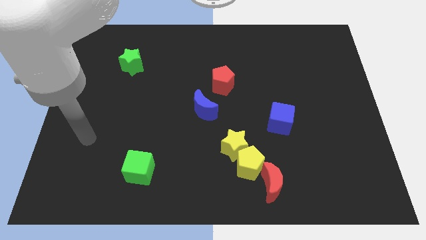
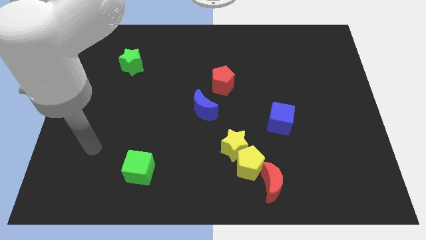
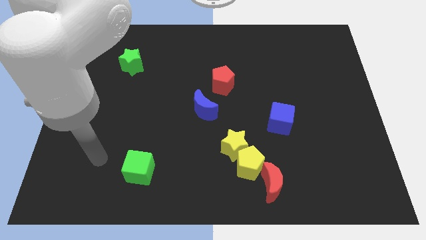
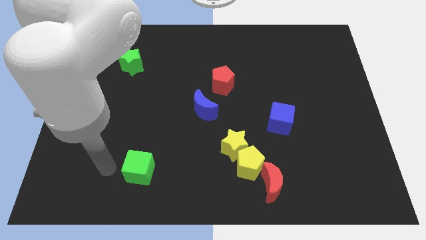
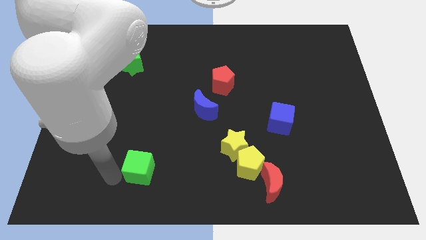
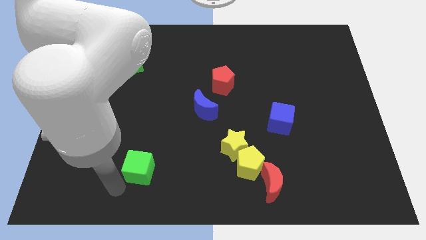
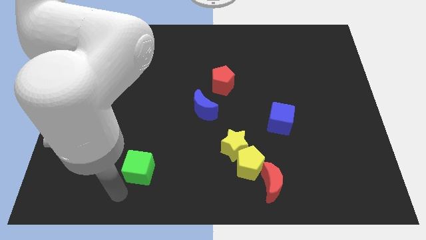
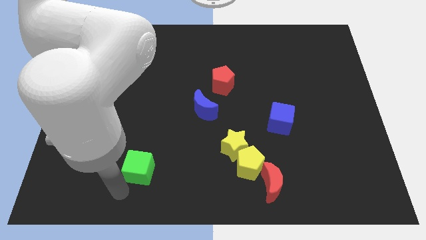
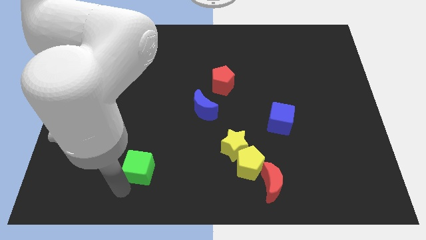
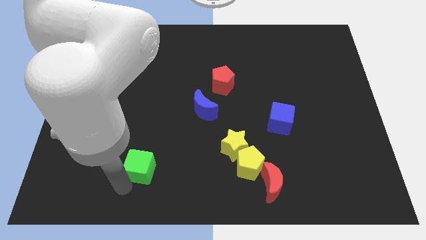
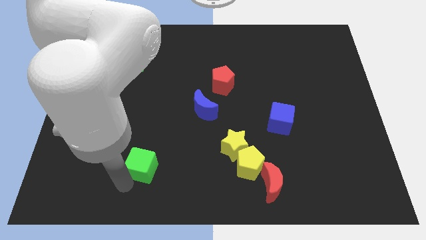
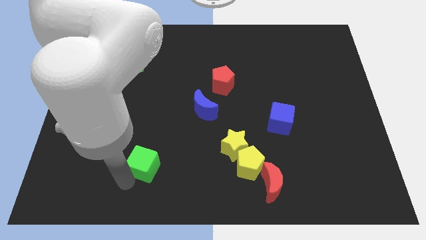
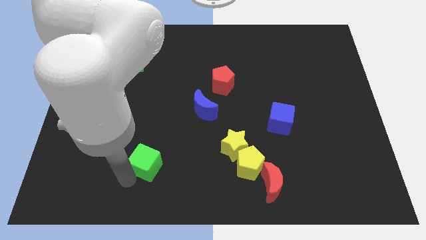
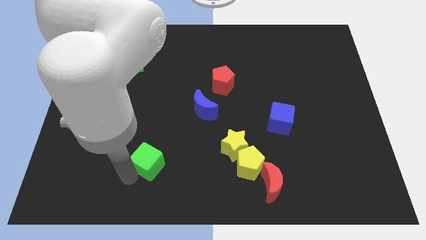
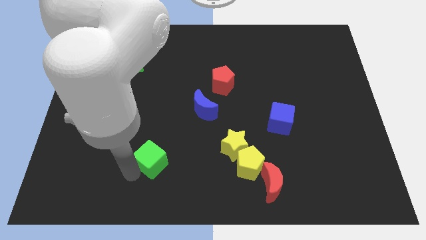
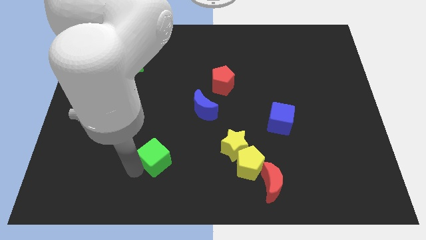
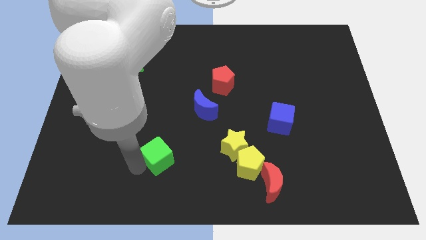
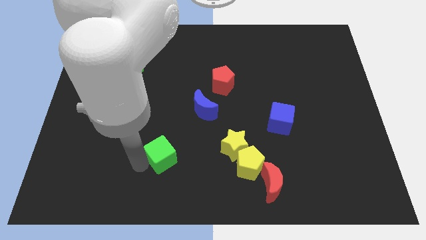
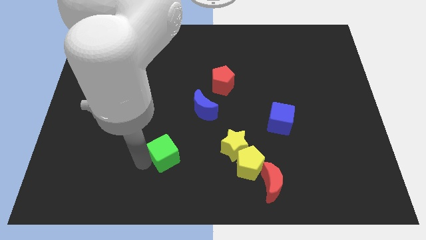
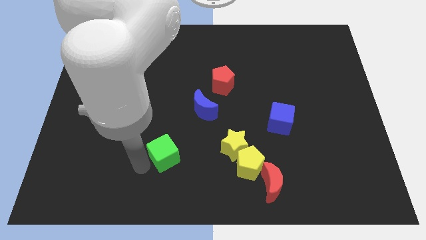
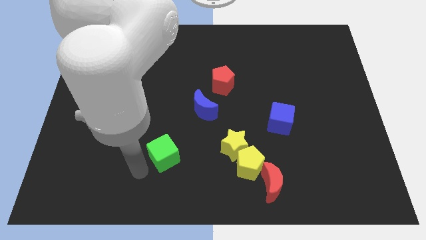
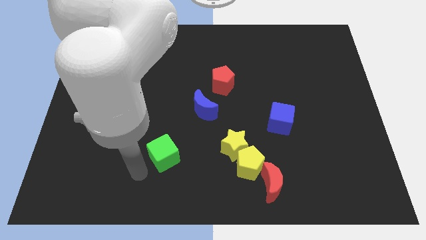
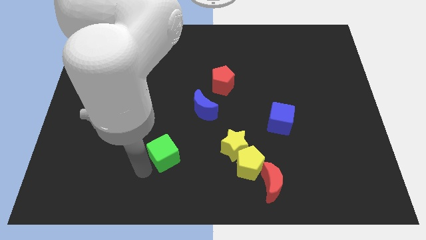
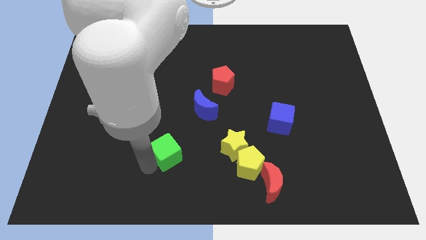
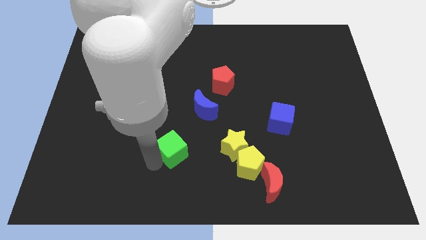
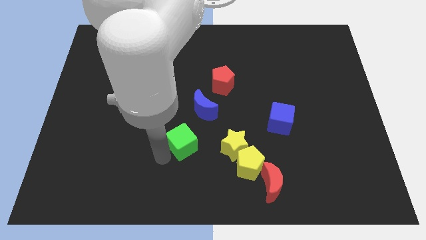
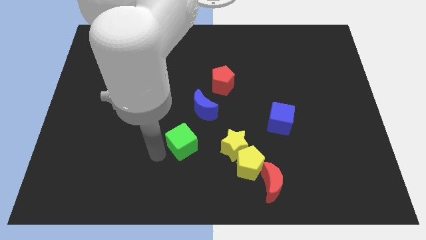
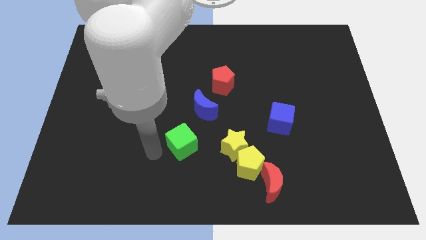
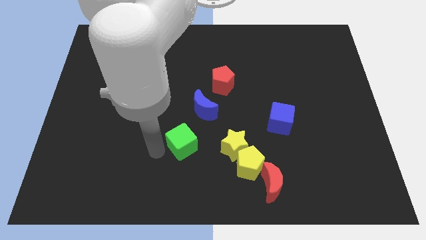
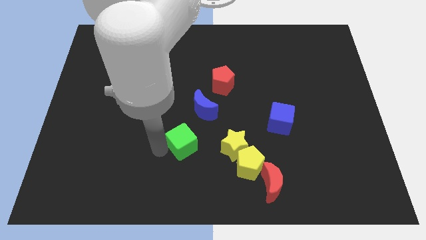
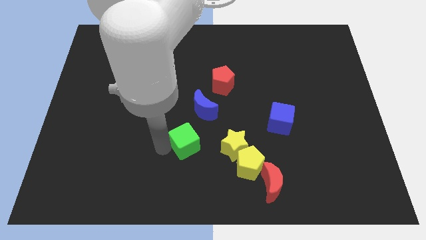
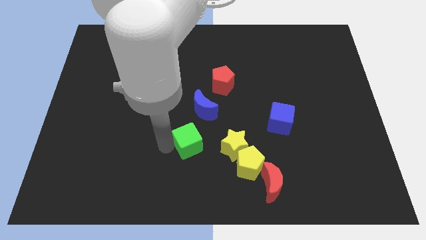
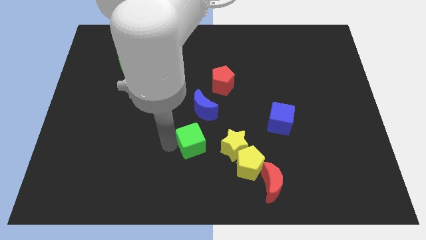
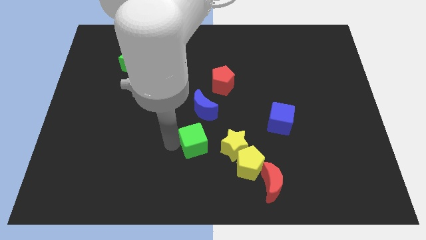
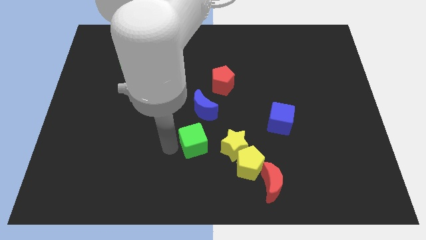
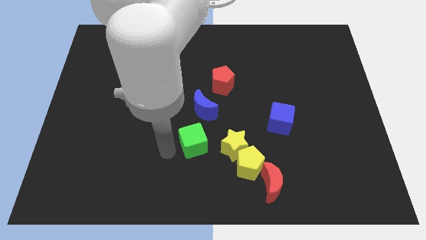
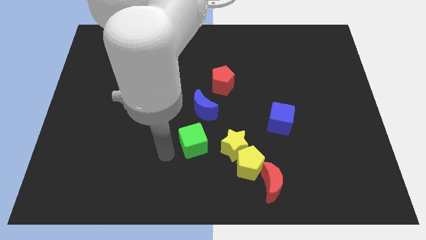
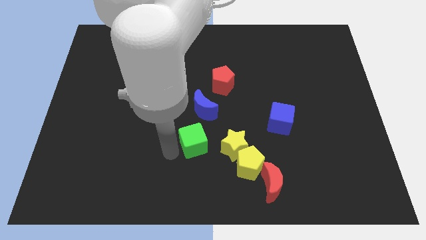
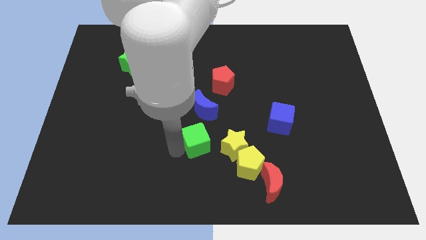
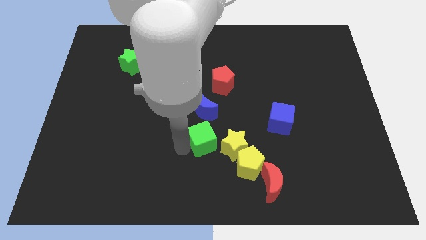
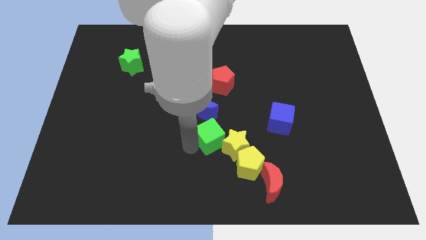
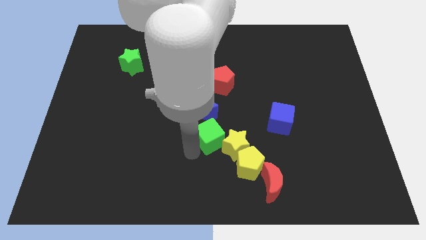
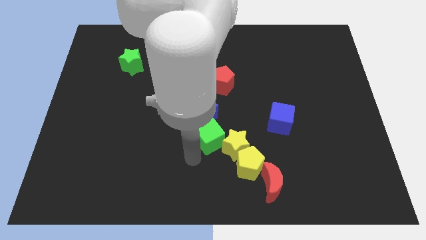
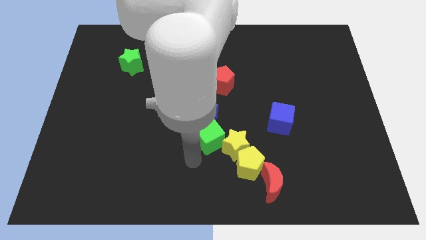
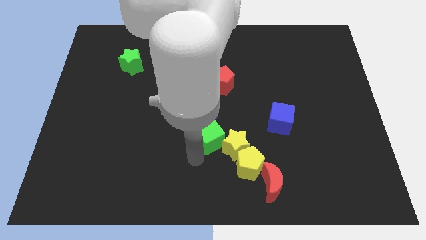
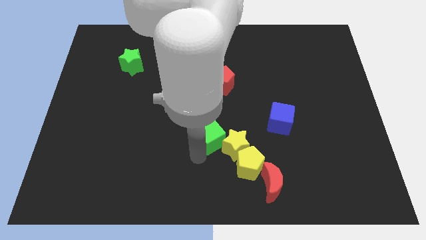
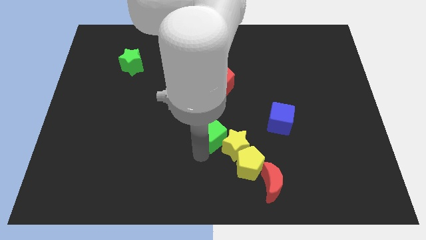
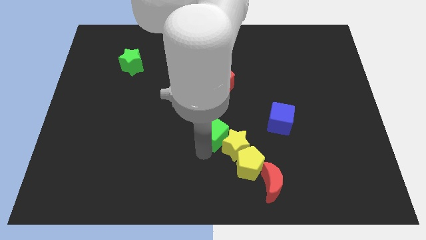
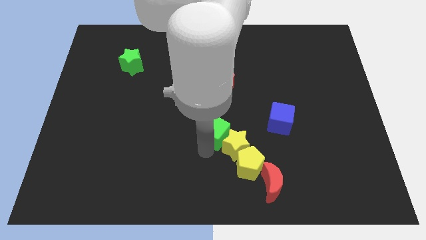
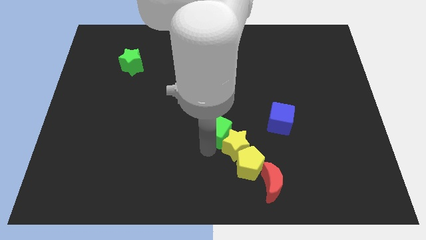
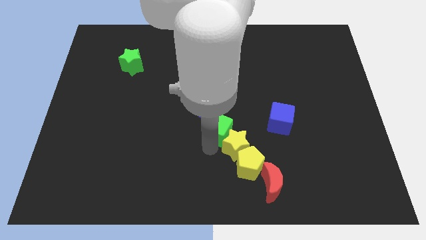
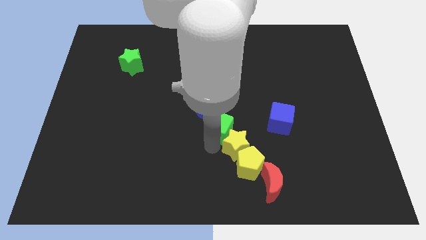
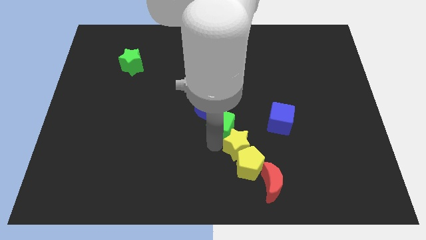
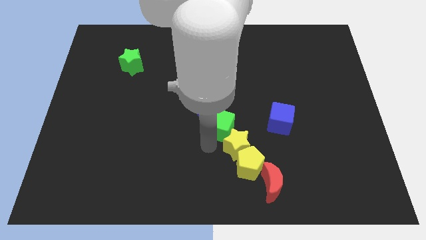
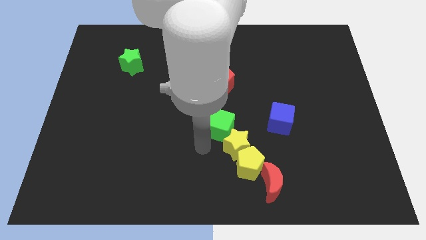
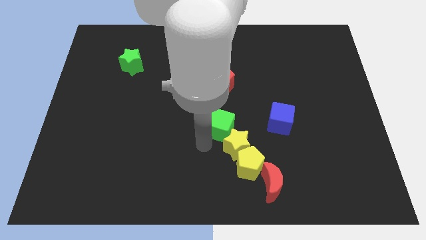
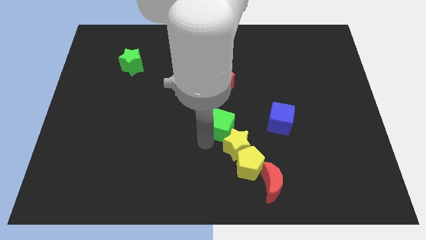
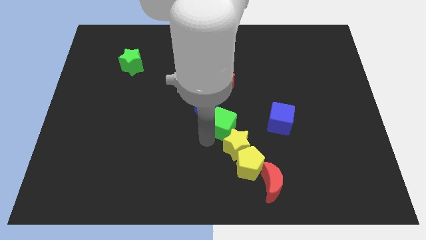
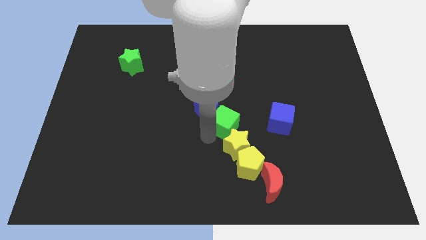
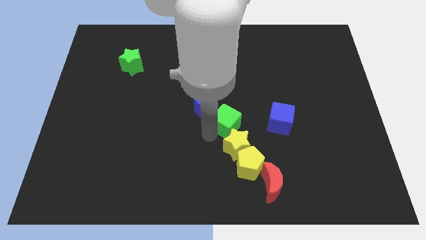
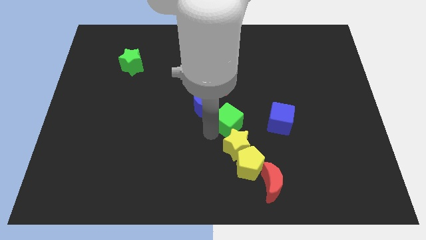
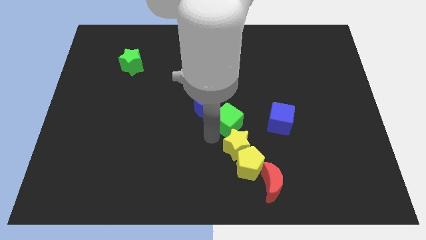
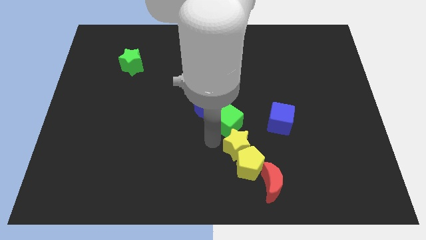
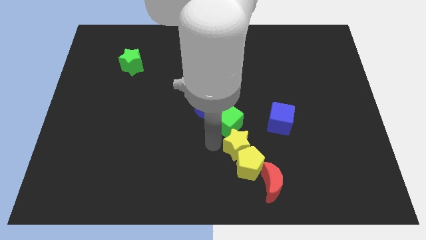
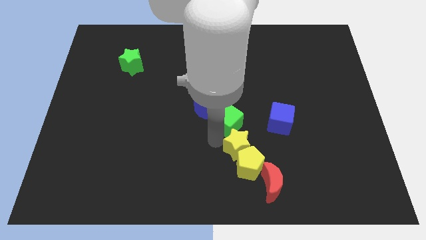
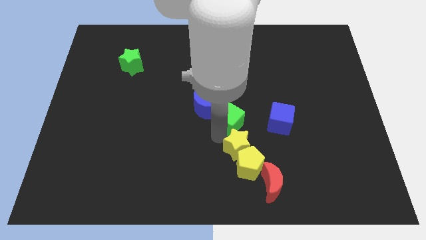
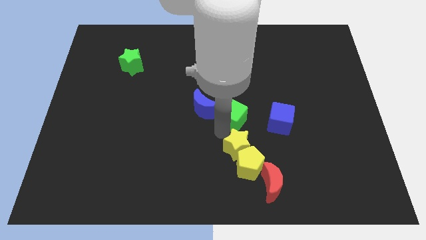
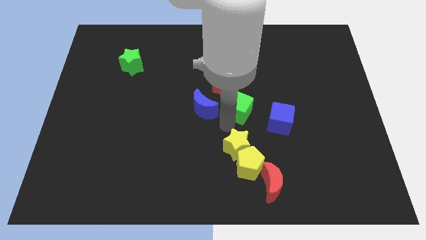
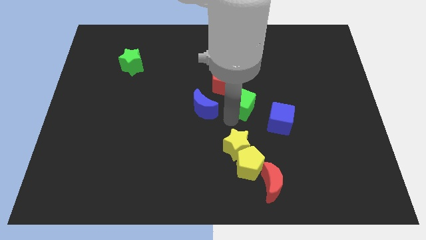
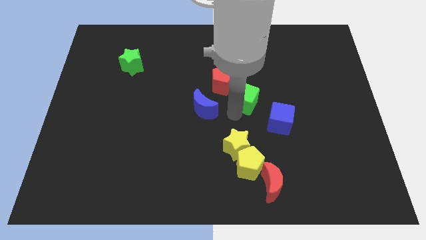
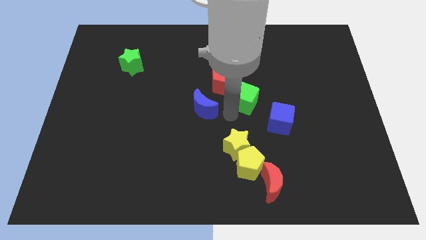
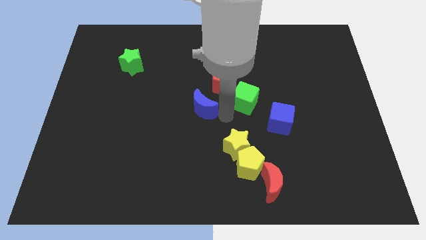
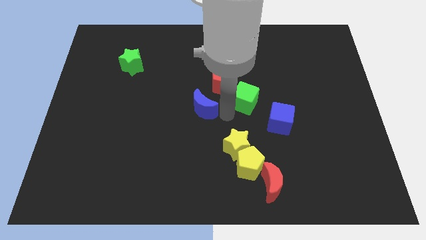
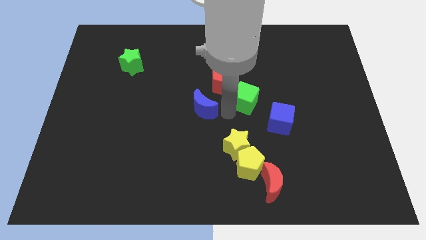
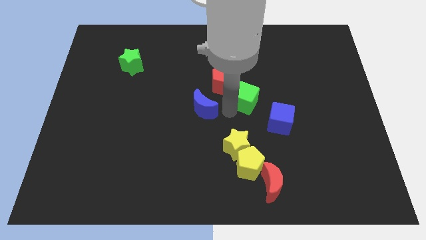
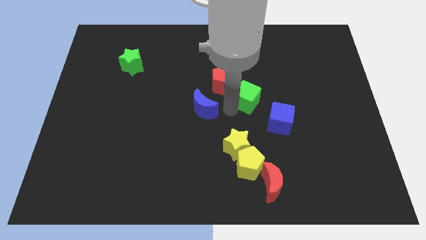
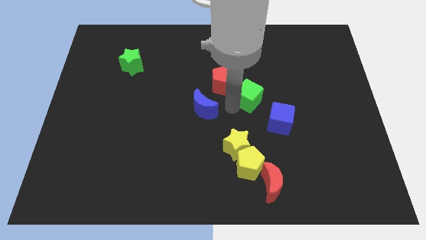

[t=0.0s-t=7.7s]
put the green cube to the right of the red pentagon

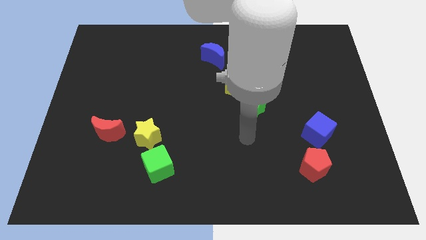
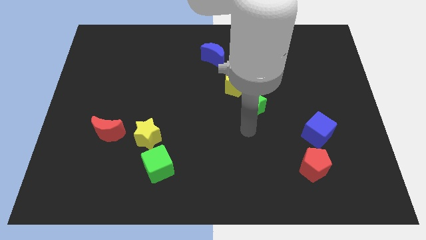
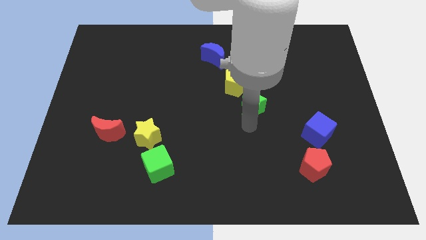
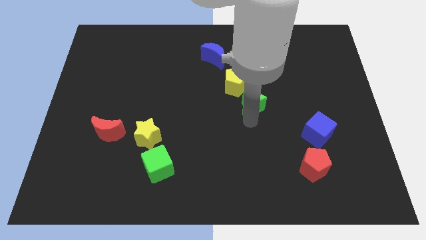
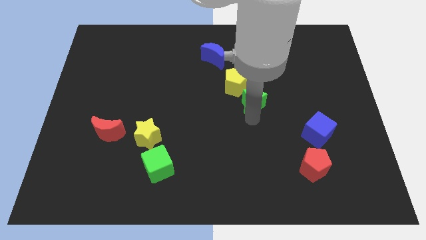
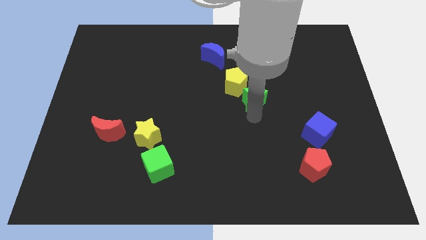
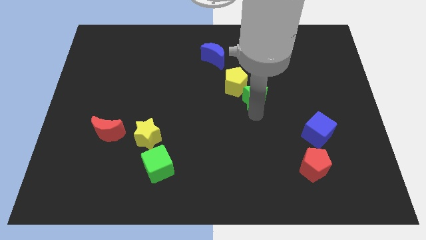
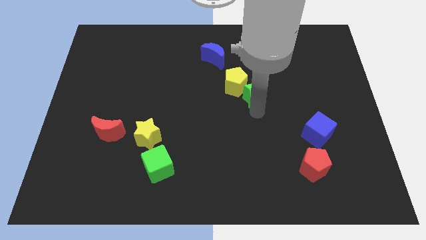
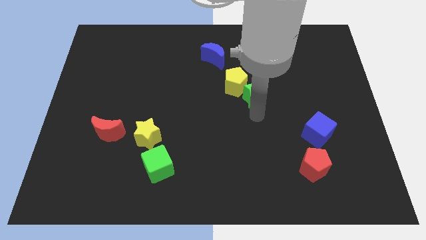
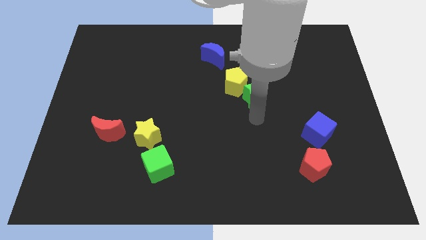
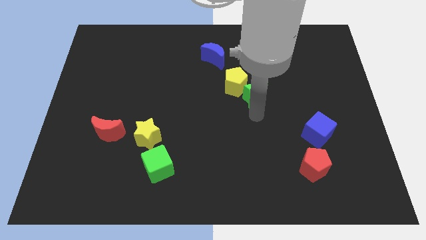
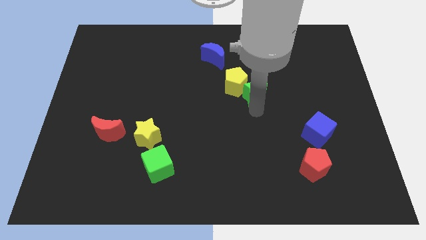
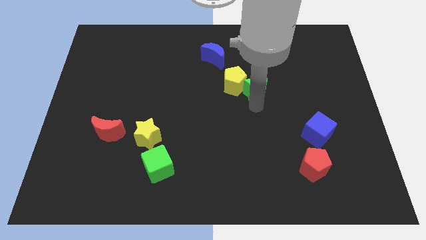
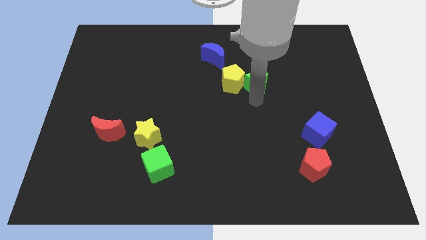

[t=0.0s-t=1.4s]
move the green star diagonally up and to the right of the yellow pentagon
